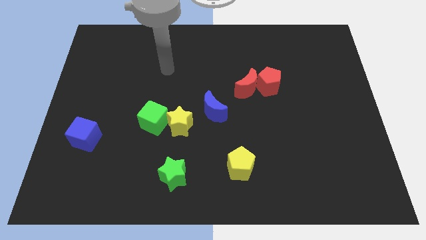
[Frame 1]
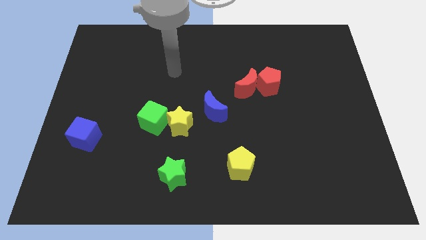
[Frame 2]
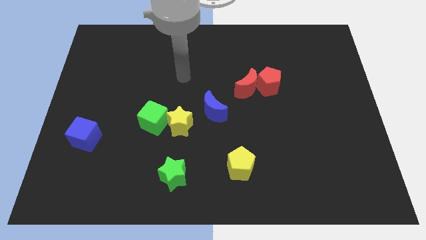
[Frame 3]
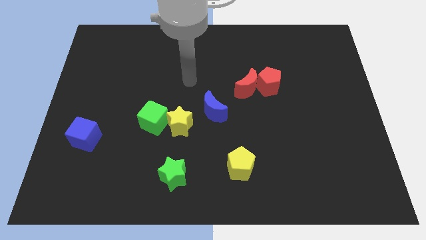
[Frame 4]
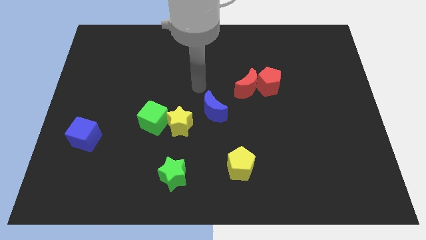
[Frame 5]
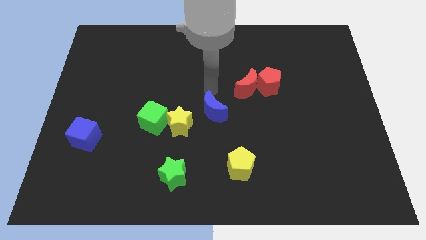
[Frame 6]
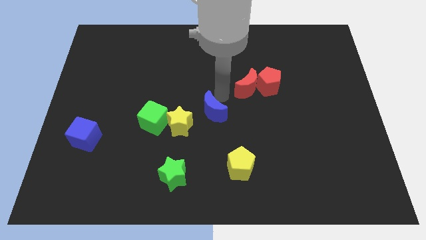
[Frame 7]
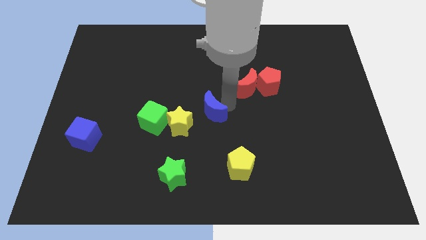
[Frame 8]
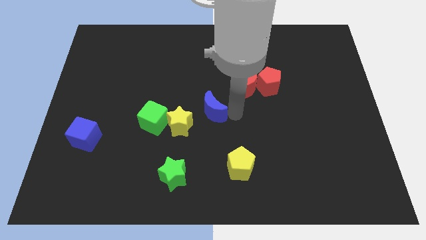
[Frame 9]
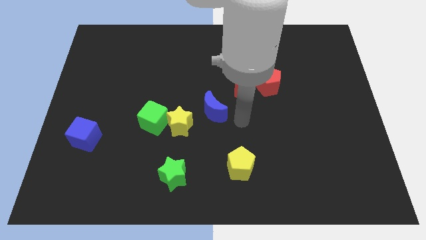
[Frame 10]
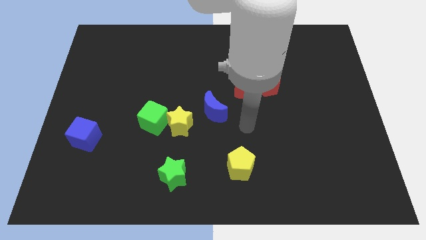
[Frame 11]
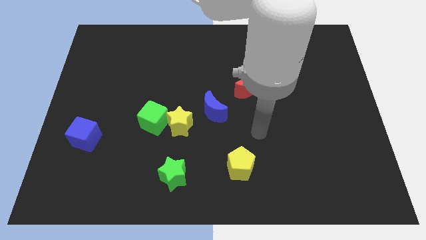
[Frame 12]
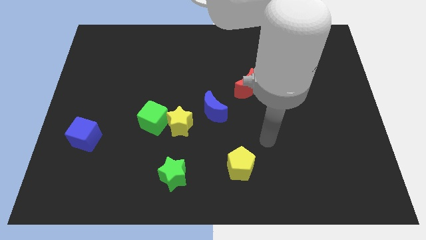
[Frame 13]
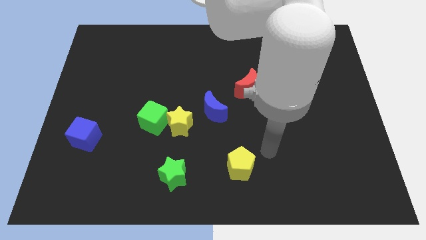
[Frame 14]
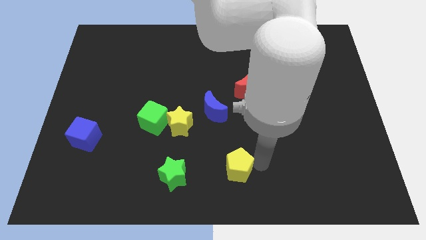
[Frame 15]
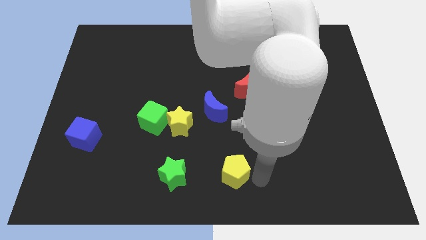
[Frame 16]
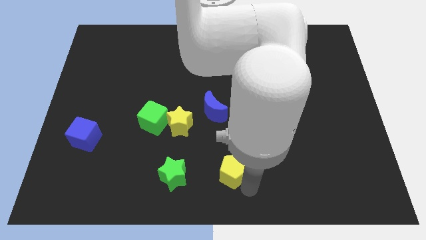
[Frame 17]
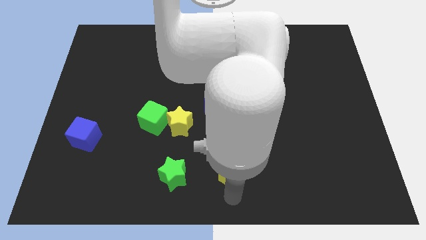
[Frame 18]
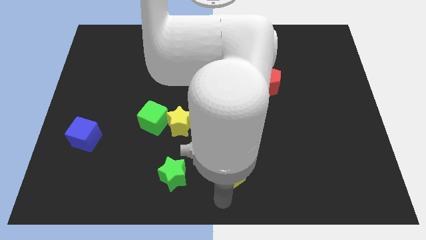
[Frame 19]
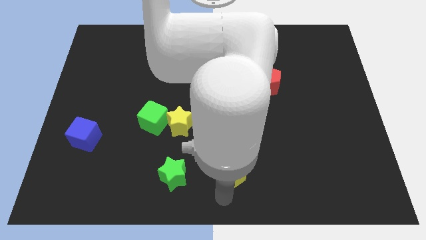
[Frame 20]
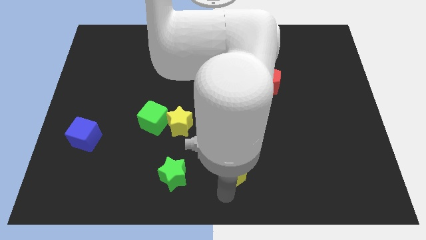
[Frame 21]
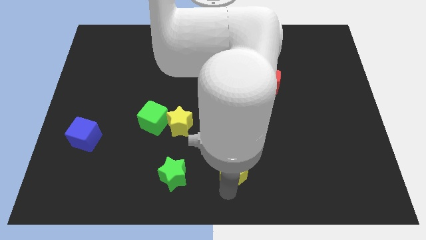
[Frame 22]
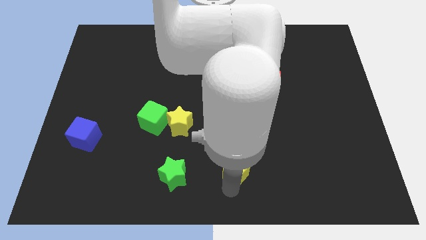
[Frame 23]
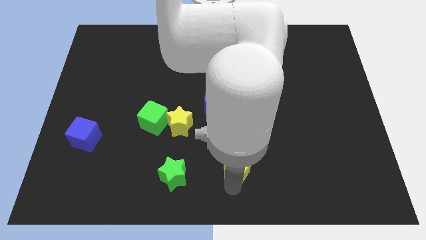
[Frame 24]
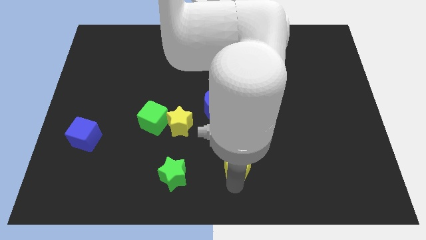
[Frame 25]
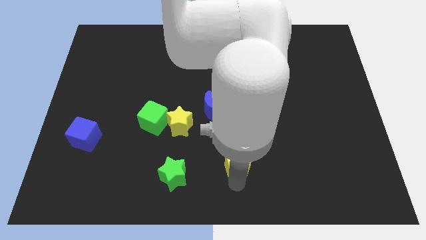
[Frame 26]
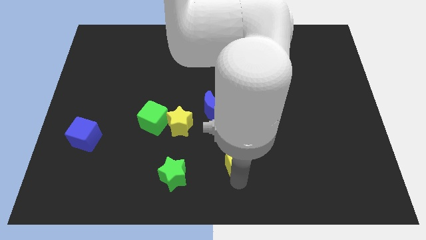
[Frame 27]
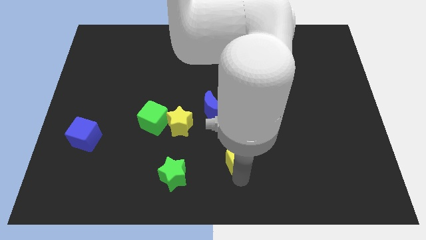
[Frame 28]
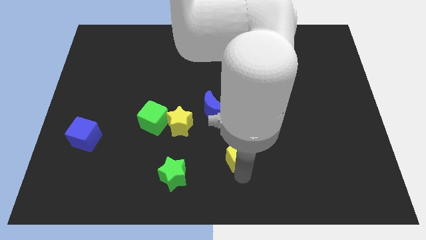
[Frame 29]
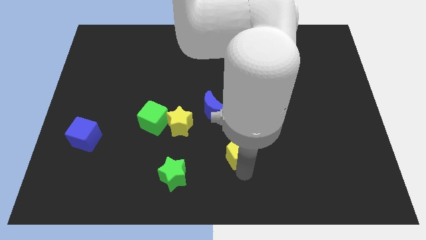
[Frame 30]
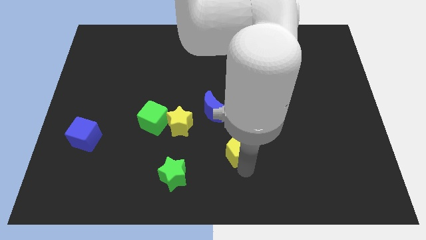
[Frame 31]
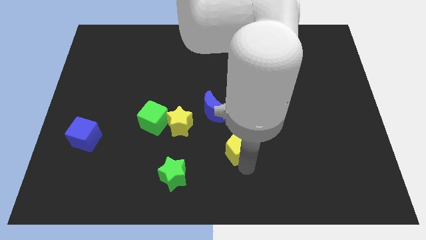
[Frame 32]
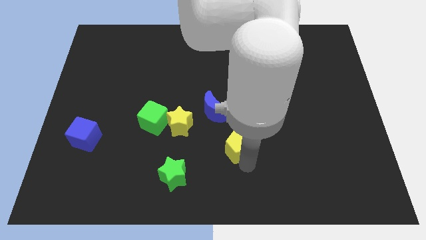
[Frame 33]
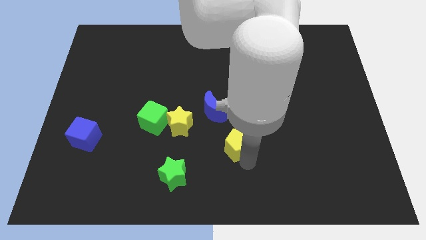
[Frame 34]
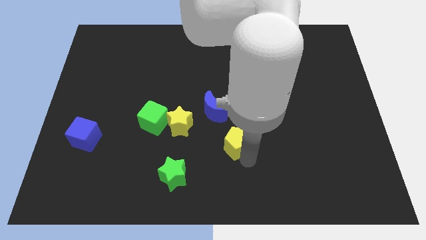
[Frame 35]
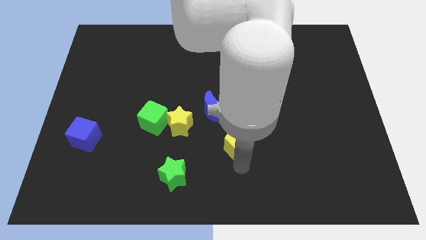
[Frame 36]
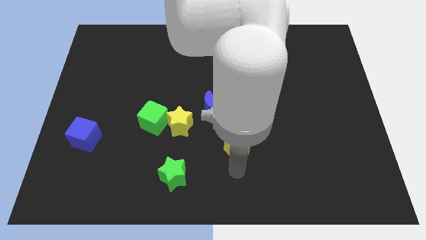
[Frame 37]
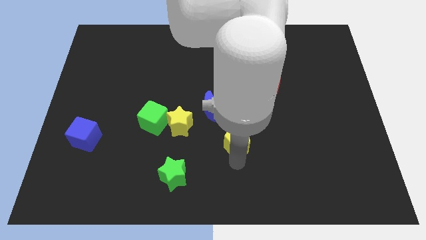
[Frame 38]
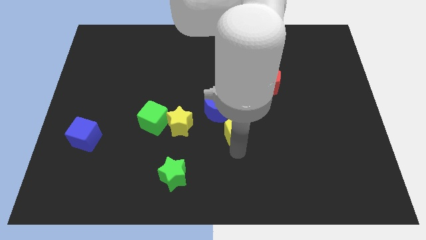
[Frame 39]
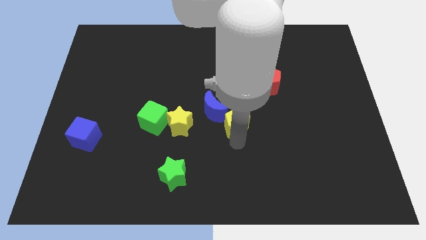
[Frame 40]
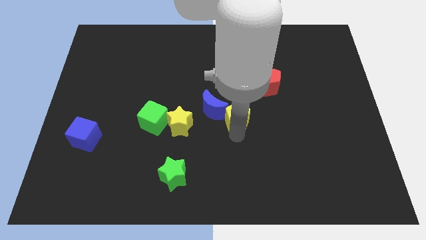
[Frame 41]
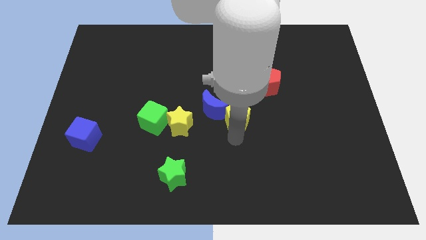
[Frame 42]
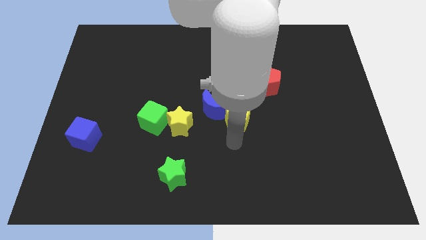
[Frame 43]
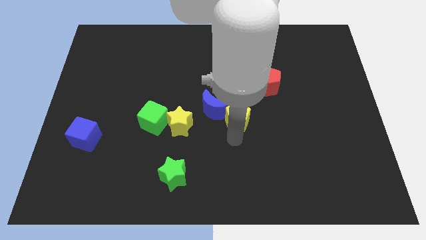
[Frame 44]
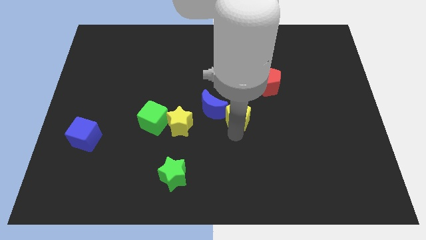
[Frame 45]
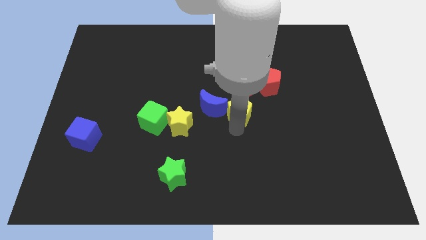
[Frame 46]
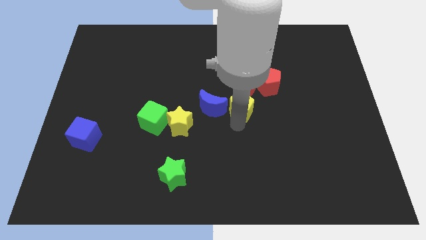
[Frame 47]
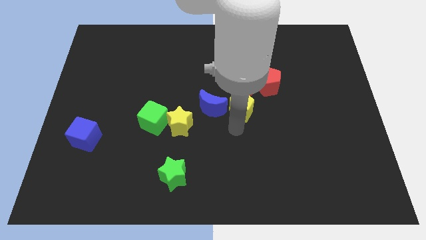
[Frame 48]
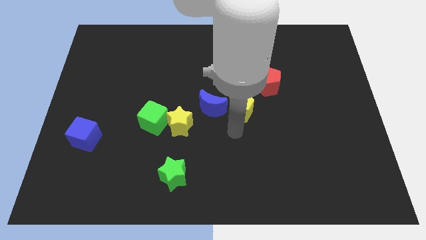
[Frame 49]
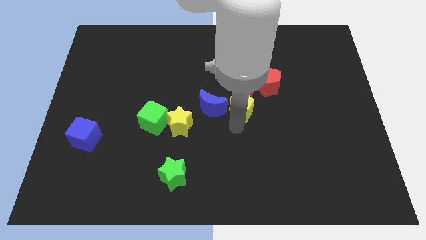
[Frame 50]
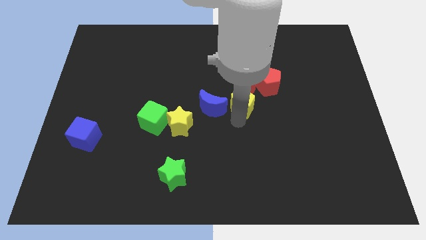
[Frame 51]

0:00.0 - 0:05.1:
move the yellow pentagon towards the red moon

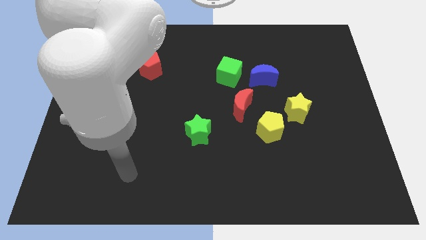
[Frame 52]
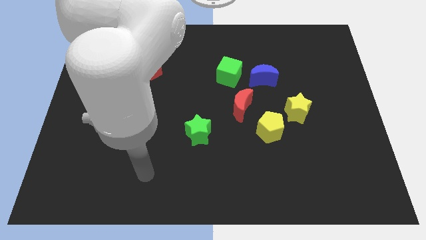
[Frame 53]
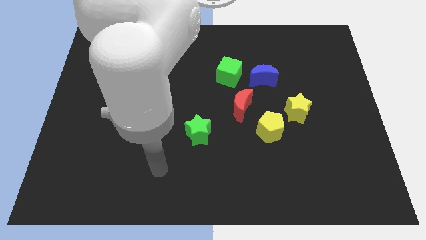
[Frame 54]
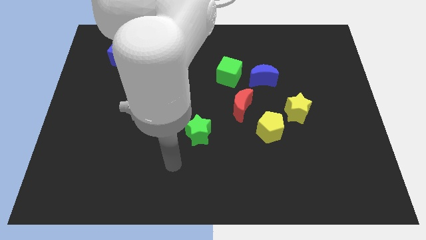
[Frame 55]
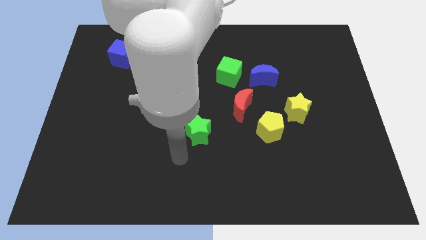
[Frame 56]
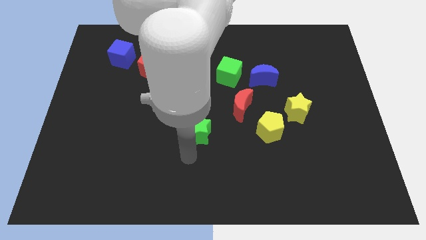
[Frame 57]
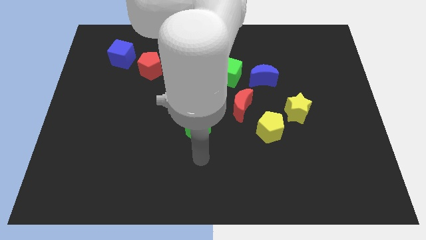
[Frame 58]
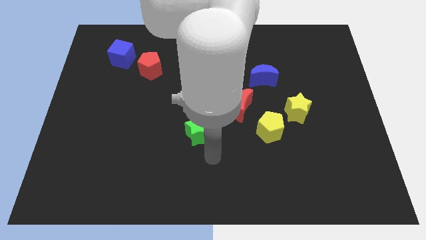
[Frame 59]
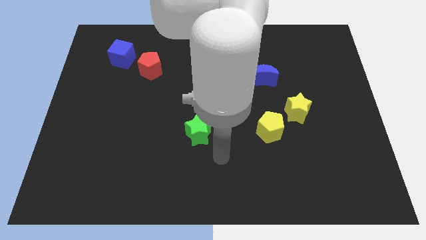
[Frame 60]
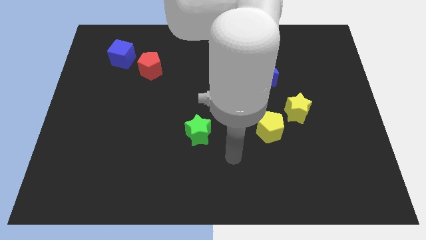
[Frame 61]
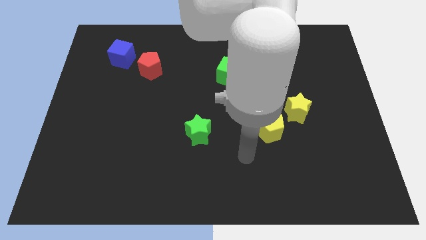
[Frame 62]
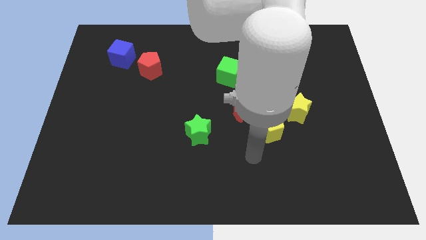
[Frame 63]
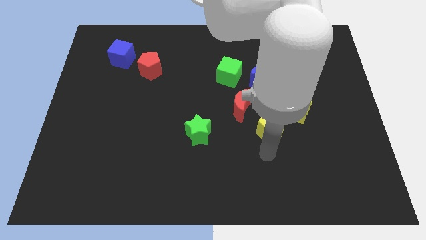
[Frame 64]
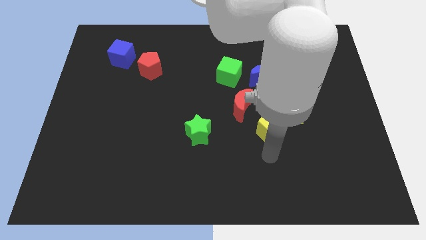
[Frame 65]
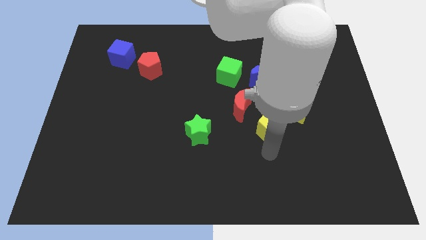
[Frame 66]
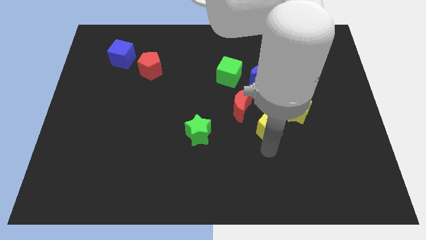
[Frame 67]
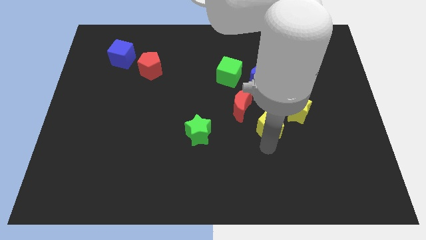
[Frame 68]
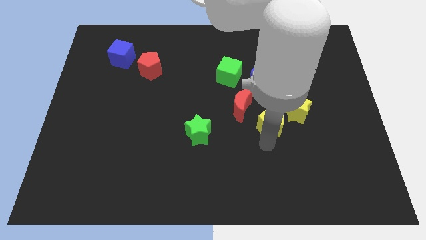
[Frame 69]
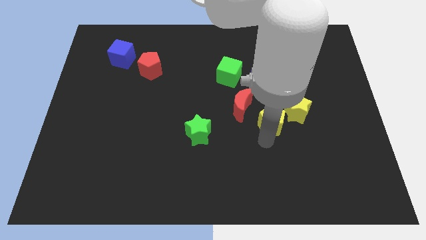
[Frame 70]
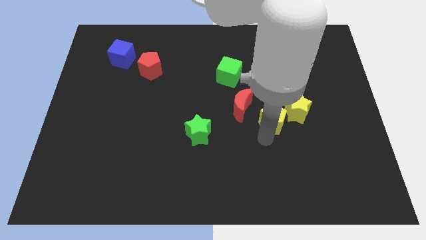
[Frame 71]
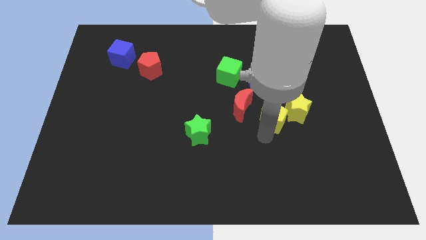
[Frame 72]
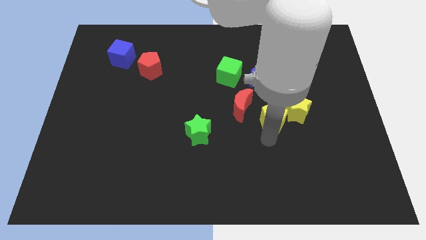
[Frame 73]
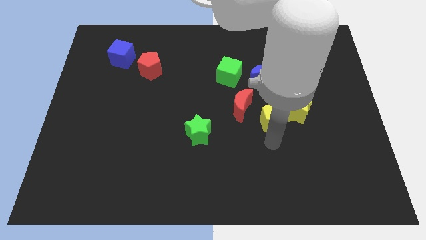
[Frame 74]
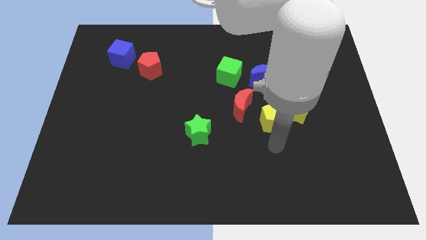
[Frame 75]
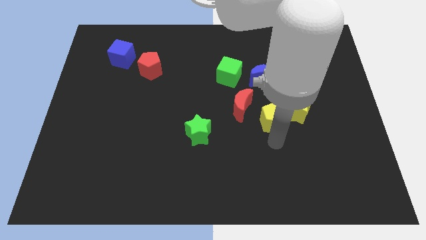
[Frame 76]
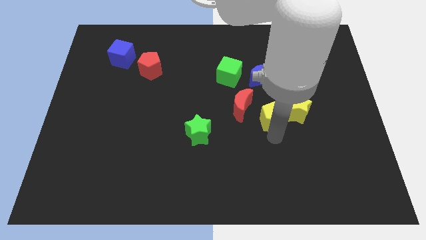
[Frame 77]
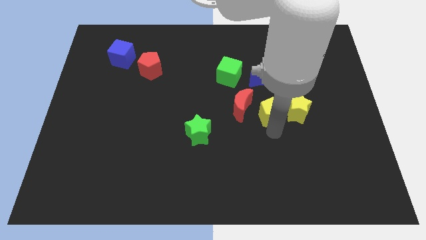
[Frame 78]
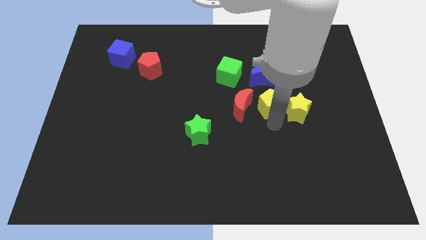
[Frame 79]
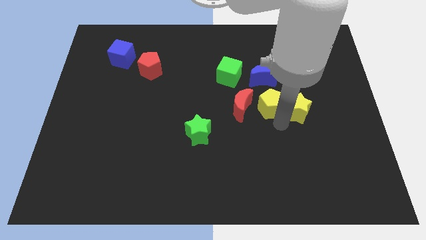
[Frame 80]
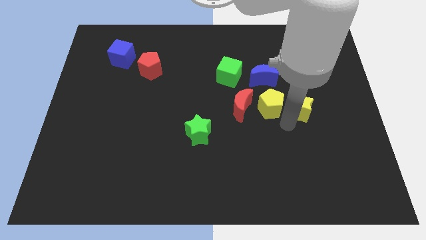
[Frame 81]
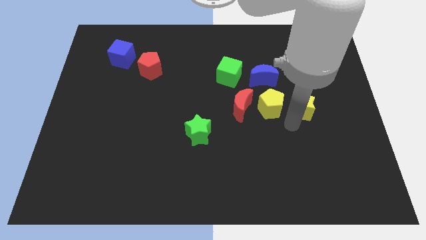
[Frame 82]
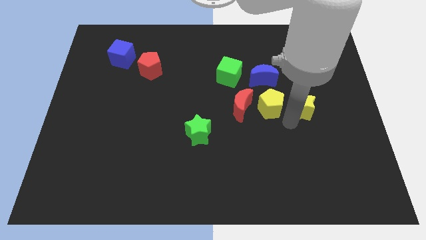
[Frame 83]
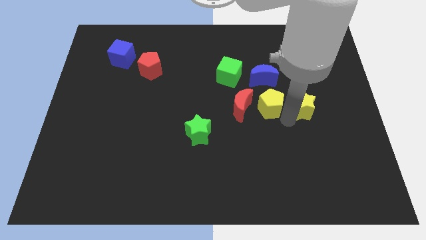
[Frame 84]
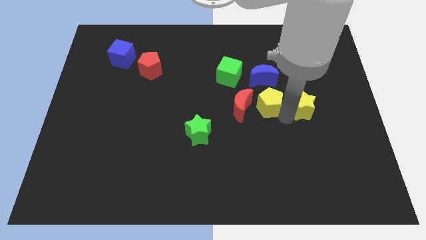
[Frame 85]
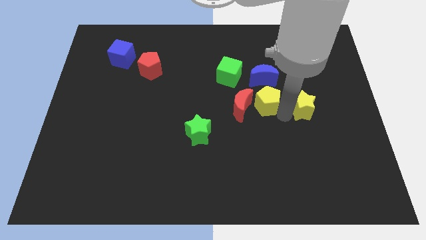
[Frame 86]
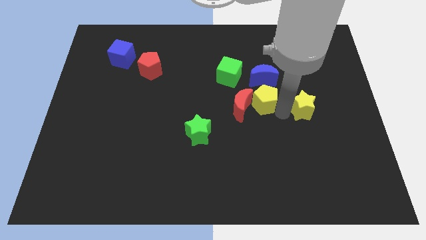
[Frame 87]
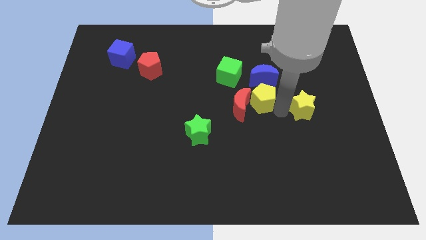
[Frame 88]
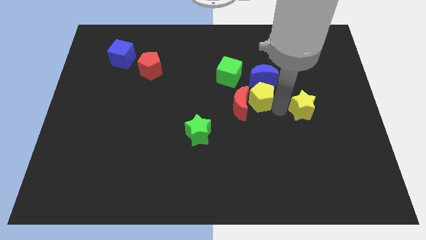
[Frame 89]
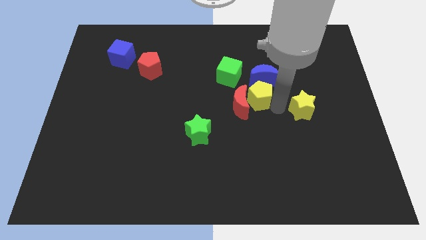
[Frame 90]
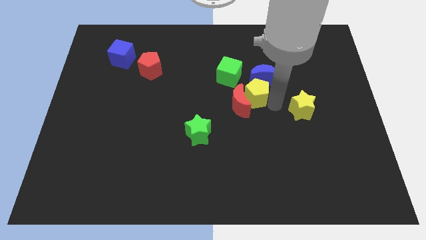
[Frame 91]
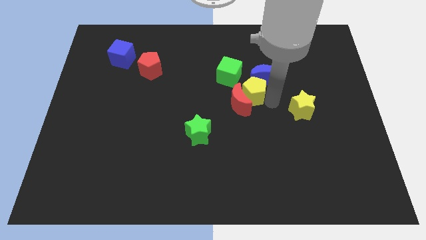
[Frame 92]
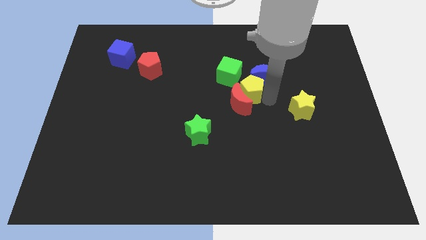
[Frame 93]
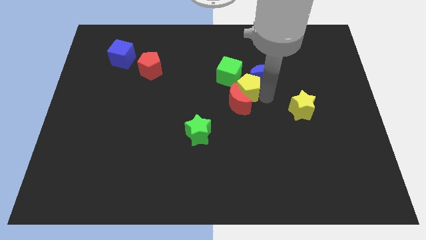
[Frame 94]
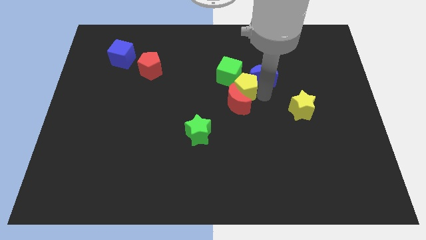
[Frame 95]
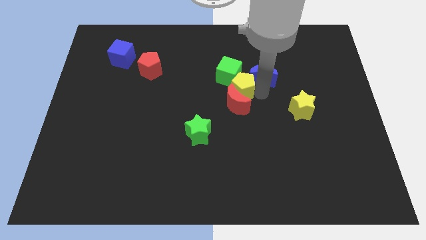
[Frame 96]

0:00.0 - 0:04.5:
push the yellow pentagon next to the green cube
